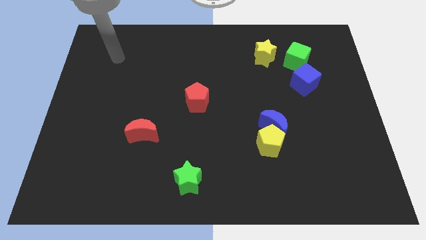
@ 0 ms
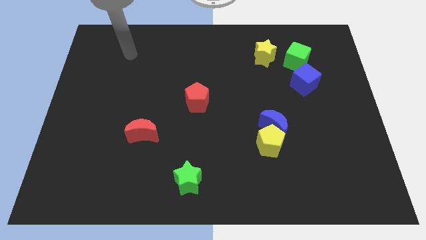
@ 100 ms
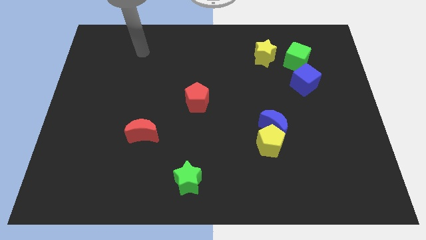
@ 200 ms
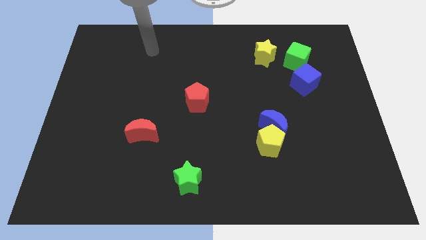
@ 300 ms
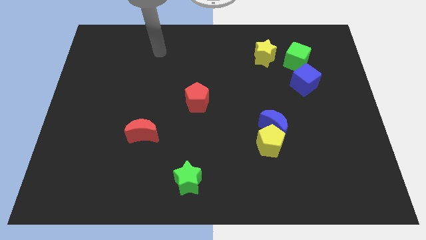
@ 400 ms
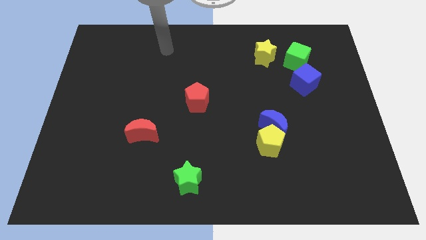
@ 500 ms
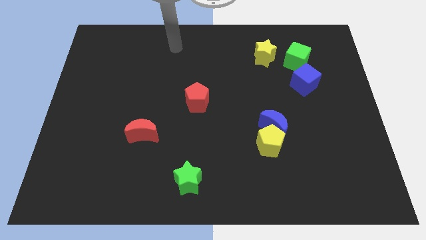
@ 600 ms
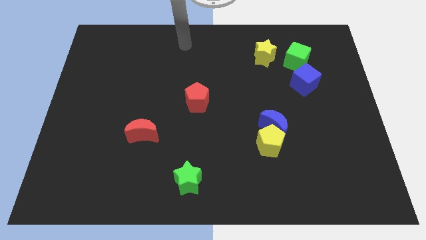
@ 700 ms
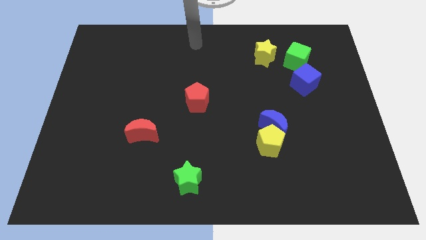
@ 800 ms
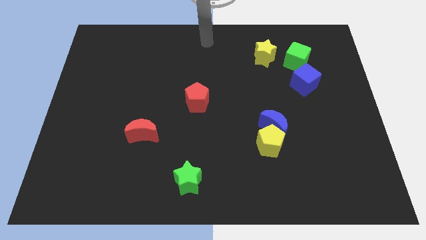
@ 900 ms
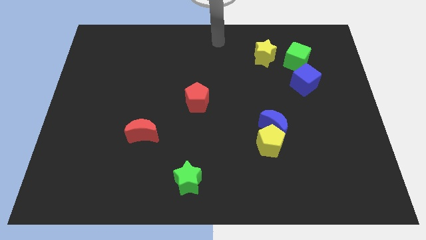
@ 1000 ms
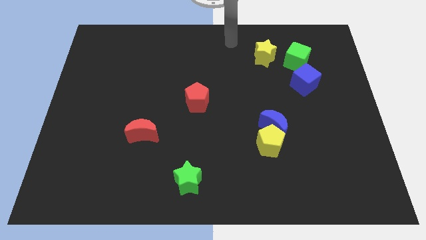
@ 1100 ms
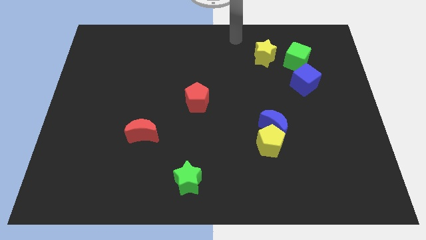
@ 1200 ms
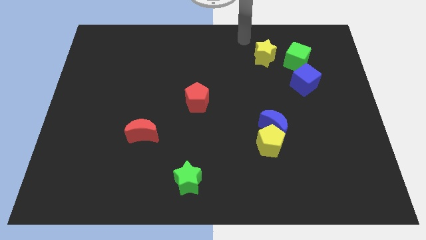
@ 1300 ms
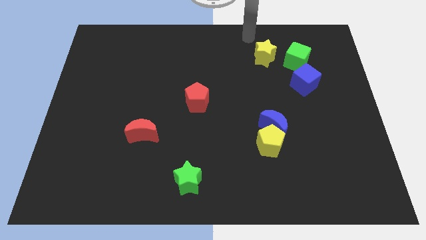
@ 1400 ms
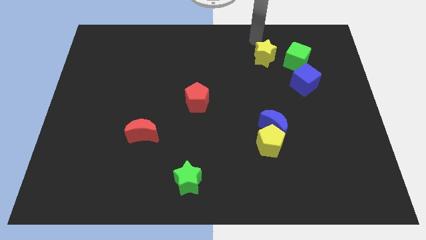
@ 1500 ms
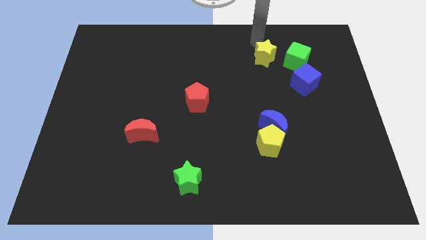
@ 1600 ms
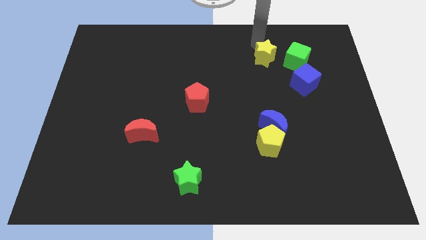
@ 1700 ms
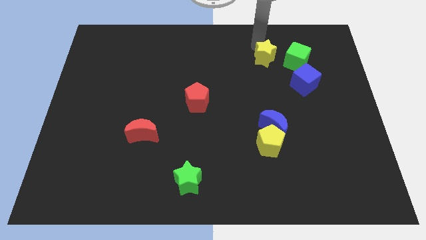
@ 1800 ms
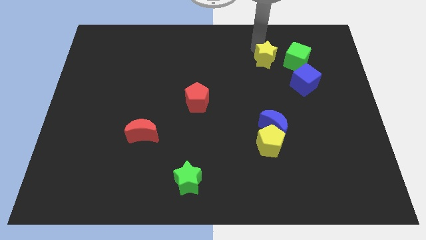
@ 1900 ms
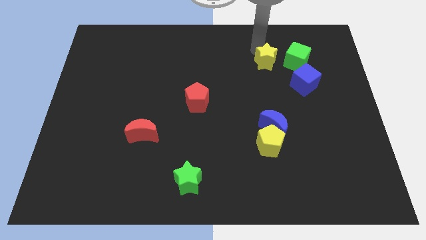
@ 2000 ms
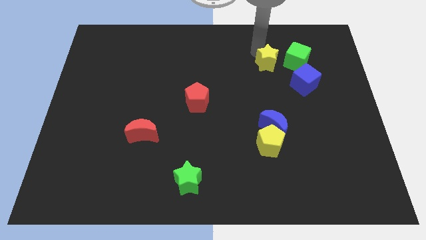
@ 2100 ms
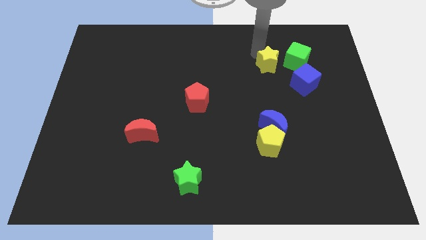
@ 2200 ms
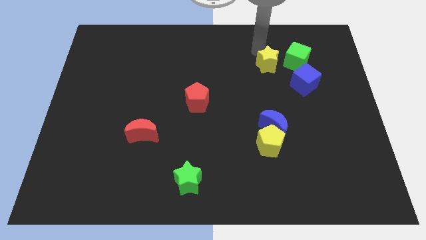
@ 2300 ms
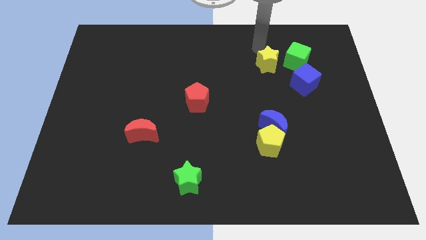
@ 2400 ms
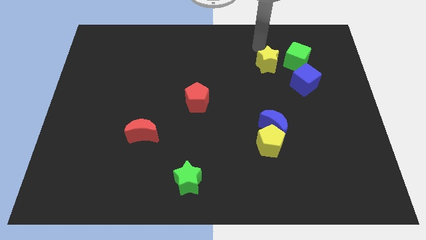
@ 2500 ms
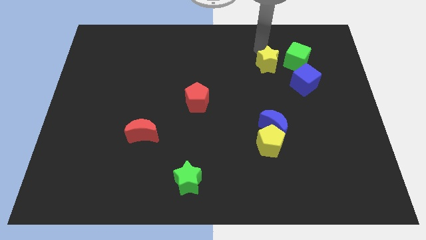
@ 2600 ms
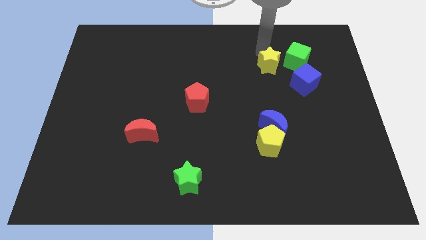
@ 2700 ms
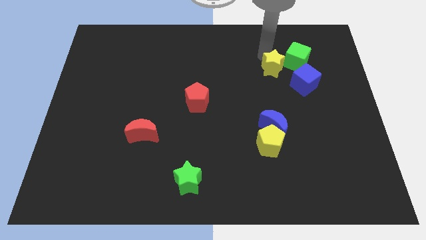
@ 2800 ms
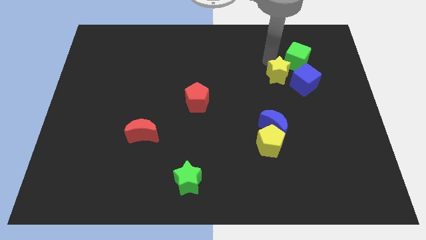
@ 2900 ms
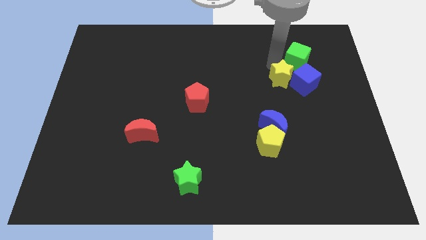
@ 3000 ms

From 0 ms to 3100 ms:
slightly move the yellow star diagonally downwards and to the right

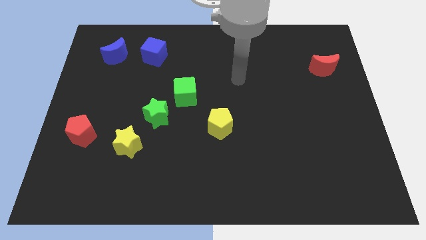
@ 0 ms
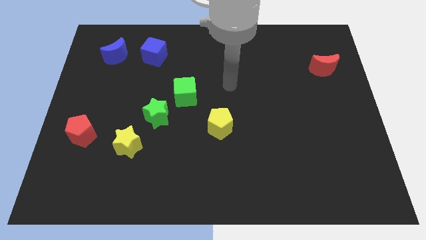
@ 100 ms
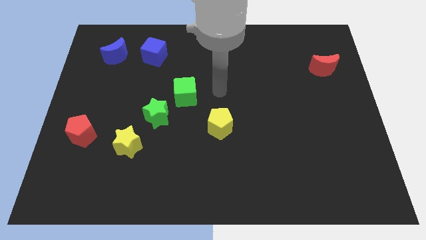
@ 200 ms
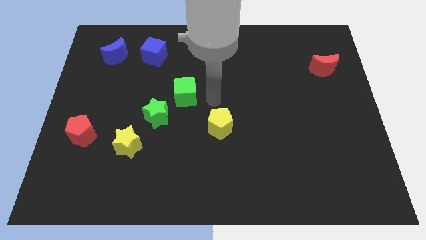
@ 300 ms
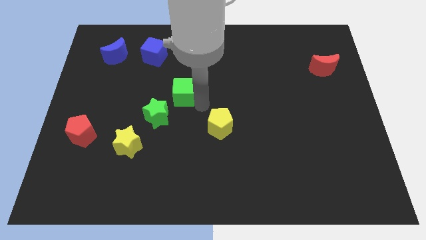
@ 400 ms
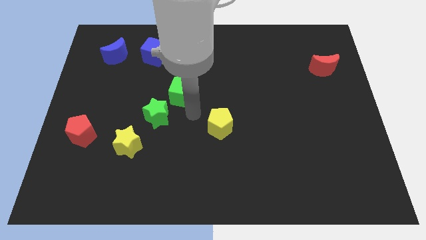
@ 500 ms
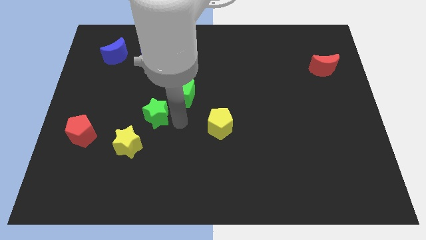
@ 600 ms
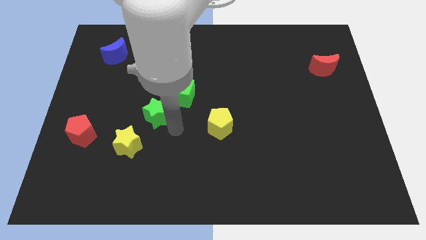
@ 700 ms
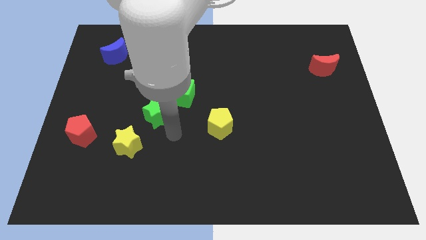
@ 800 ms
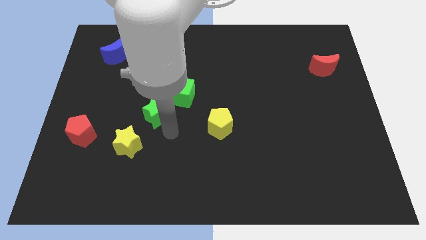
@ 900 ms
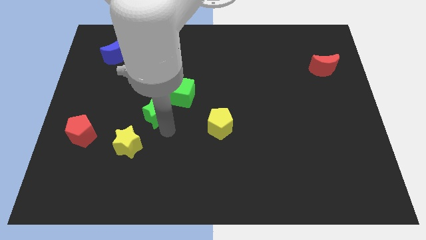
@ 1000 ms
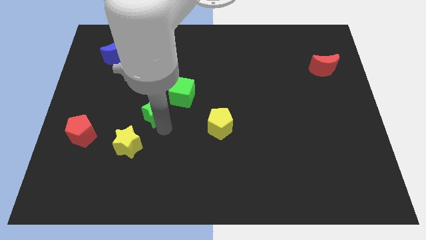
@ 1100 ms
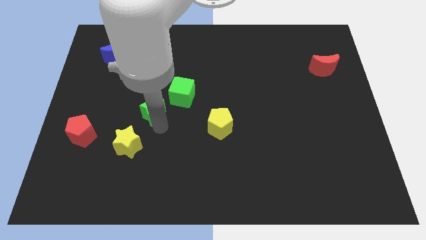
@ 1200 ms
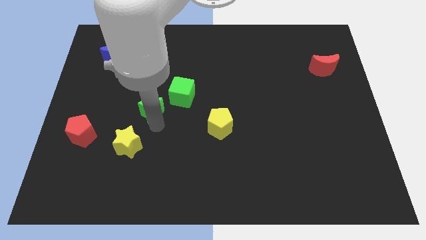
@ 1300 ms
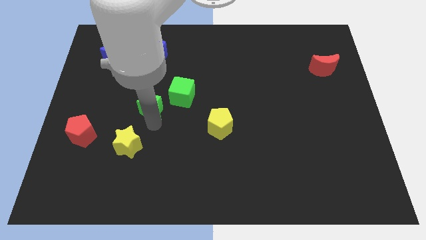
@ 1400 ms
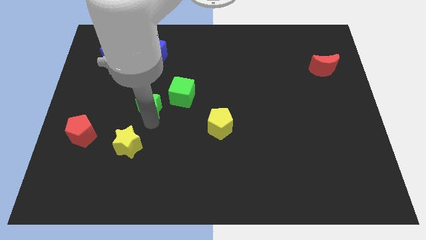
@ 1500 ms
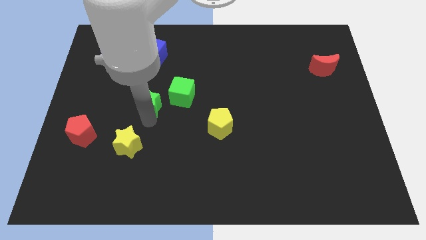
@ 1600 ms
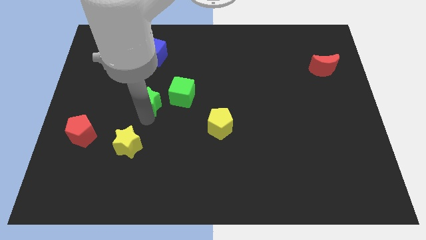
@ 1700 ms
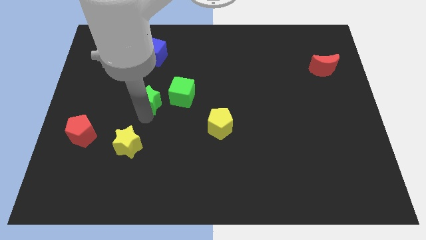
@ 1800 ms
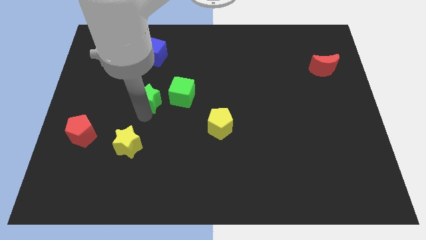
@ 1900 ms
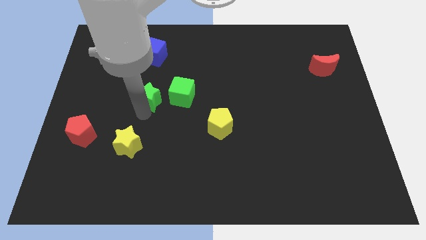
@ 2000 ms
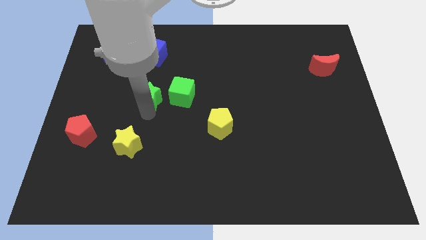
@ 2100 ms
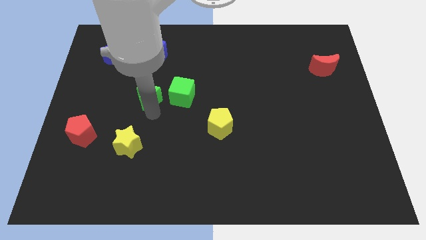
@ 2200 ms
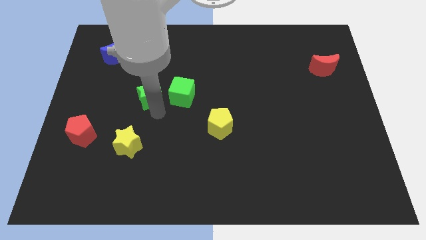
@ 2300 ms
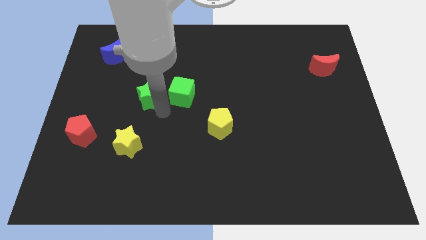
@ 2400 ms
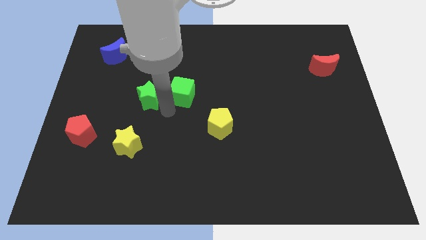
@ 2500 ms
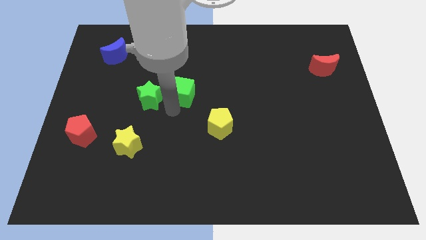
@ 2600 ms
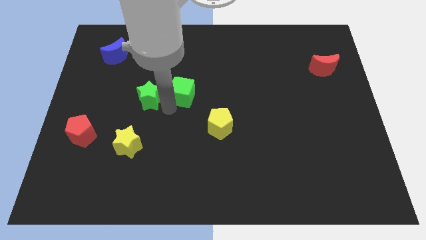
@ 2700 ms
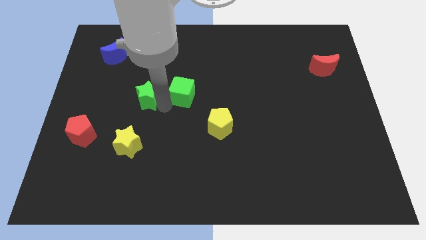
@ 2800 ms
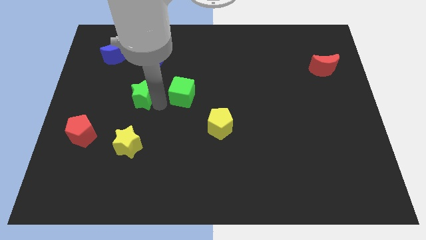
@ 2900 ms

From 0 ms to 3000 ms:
slightly move the green star up and left diagonally

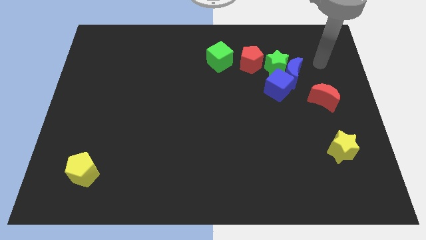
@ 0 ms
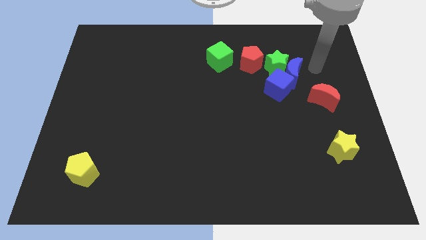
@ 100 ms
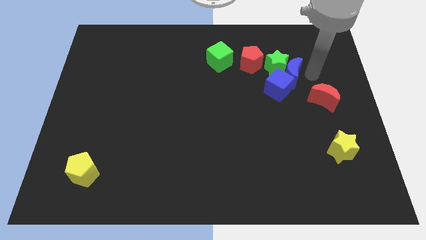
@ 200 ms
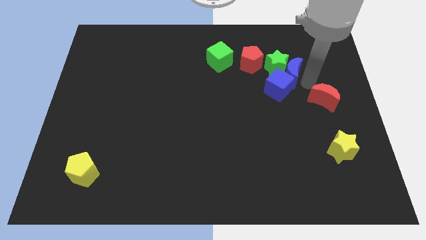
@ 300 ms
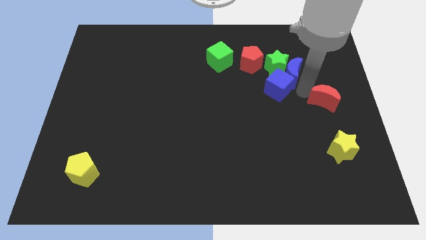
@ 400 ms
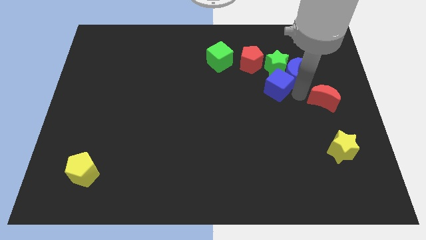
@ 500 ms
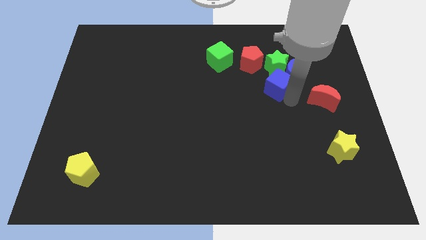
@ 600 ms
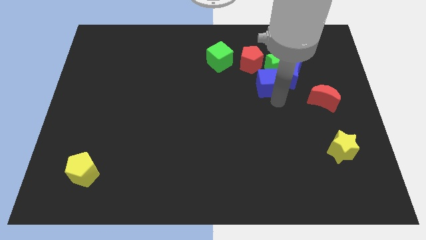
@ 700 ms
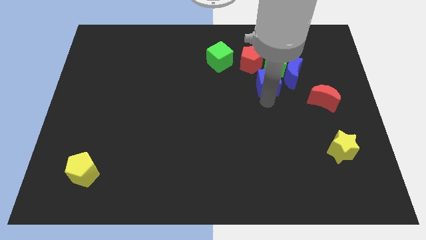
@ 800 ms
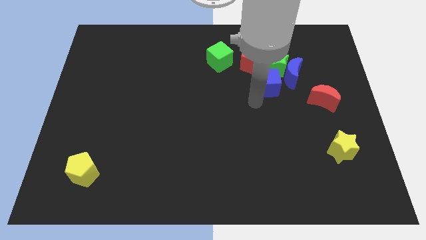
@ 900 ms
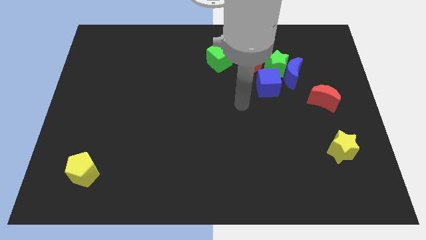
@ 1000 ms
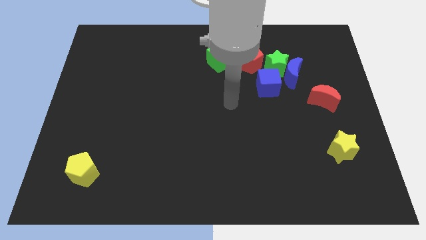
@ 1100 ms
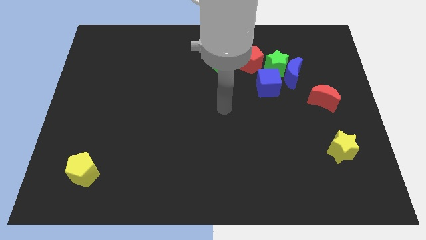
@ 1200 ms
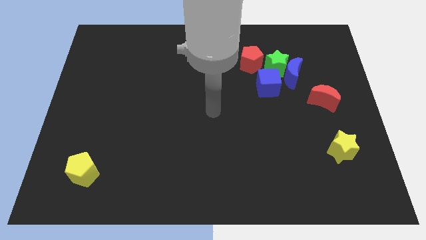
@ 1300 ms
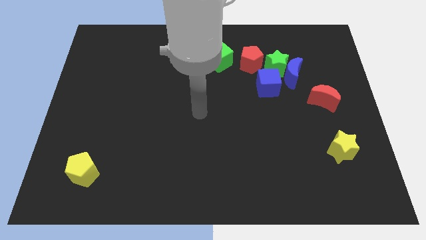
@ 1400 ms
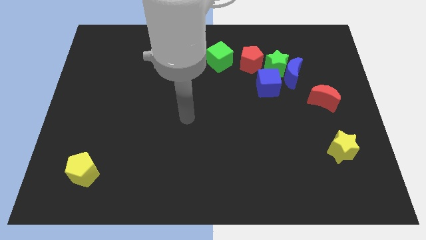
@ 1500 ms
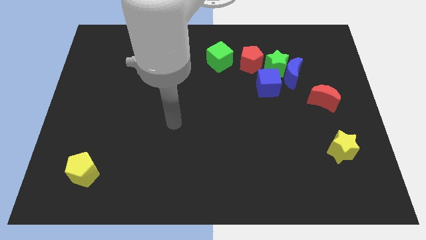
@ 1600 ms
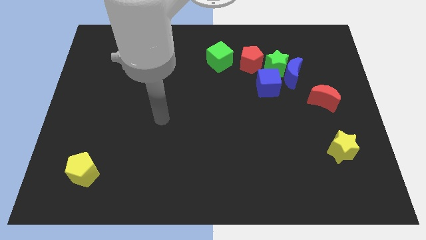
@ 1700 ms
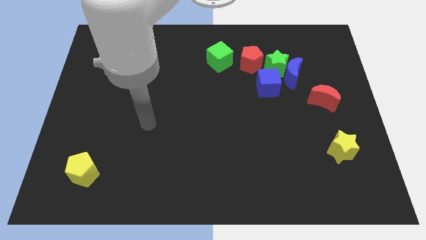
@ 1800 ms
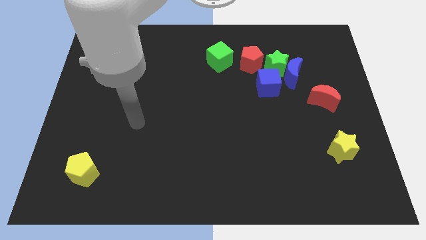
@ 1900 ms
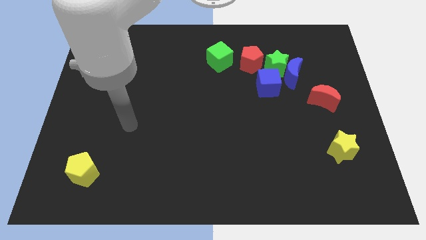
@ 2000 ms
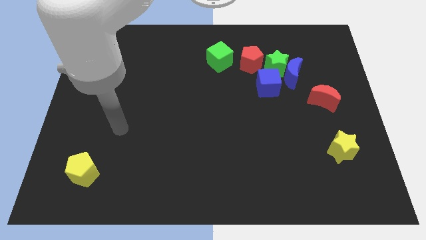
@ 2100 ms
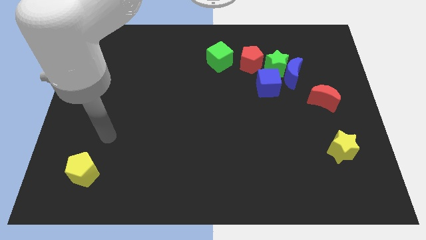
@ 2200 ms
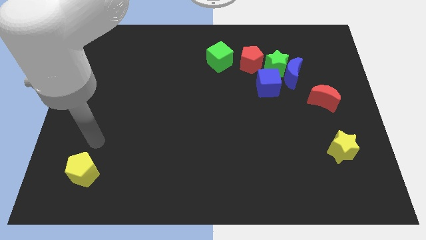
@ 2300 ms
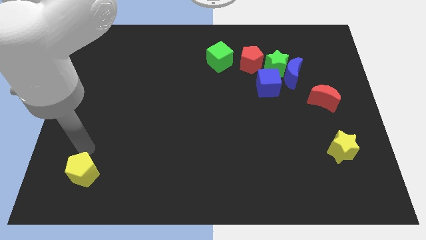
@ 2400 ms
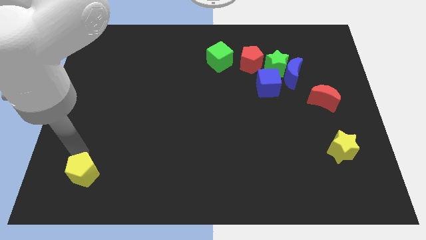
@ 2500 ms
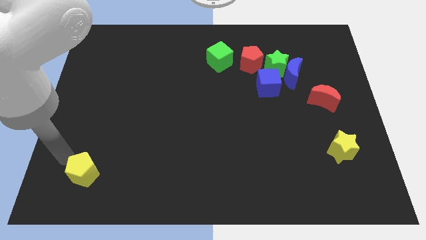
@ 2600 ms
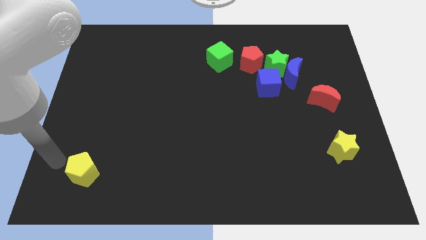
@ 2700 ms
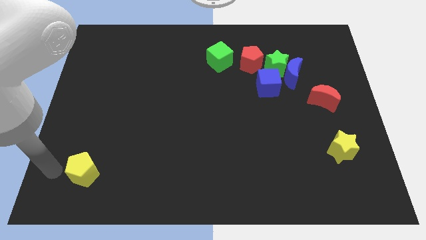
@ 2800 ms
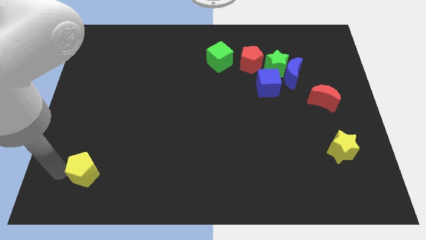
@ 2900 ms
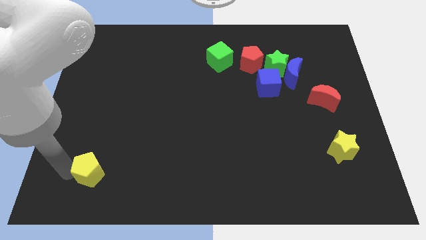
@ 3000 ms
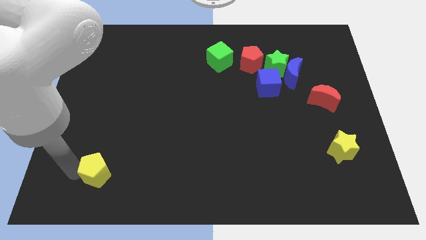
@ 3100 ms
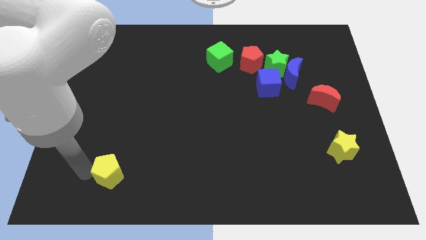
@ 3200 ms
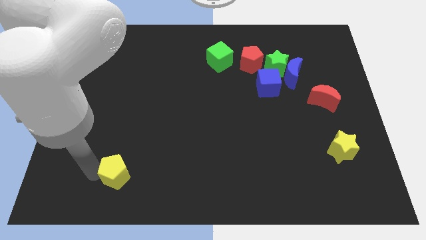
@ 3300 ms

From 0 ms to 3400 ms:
slightly slide the yellow pentagon to the right
